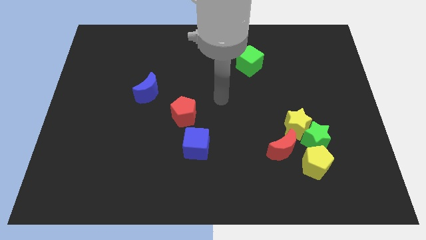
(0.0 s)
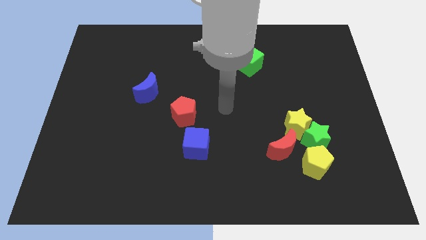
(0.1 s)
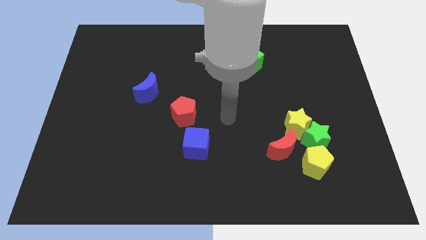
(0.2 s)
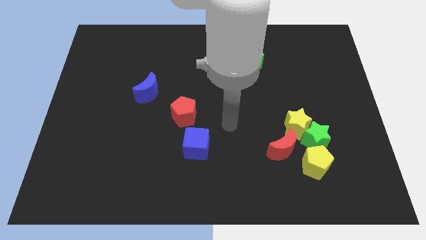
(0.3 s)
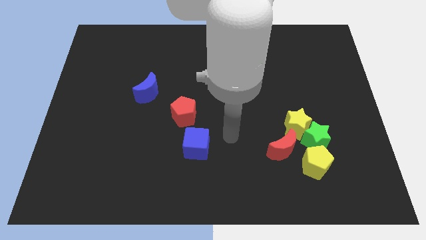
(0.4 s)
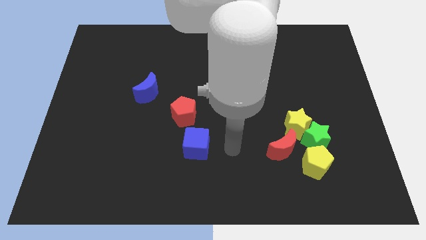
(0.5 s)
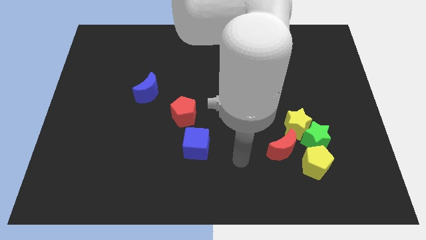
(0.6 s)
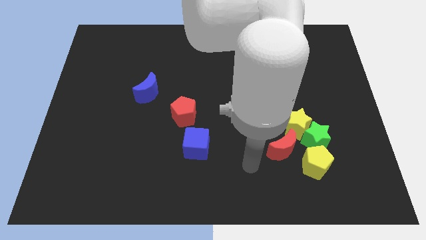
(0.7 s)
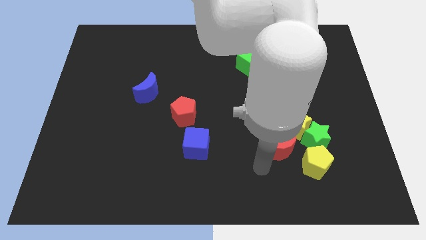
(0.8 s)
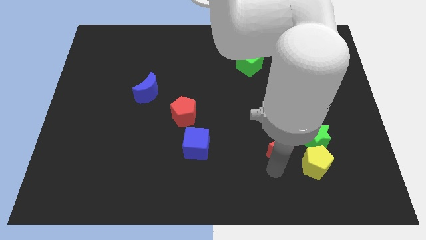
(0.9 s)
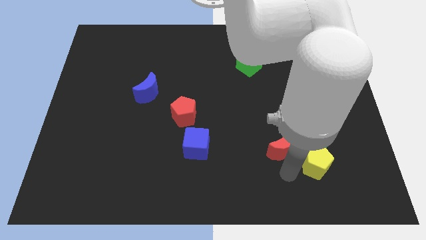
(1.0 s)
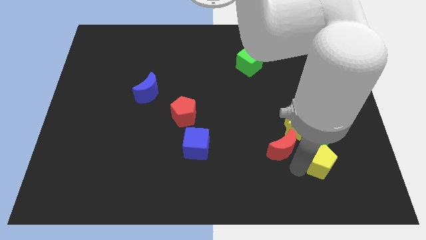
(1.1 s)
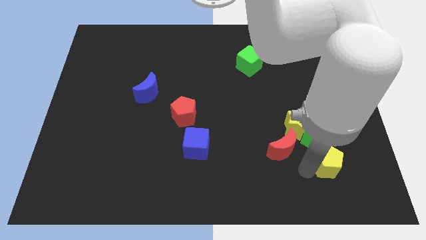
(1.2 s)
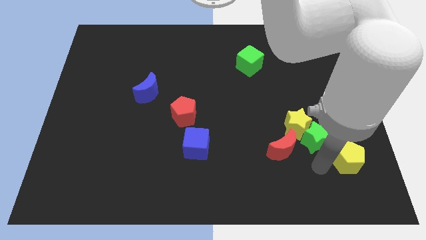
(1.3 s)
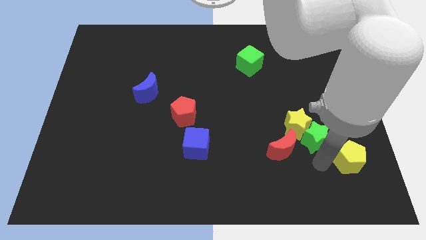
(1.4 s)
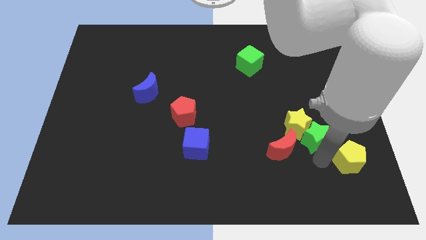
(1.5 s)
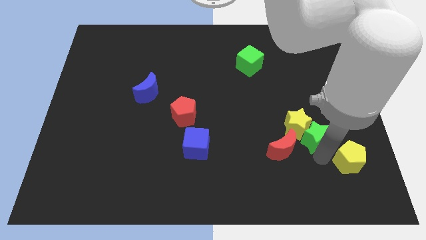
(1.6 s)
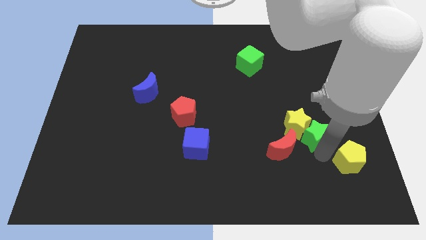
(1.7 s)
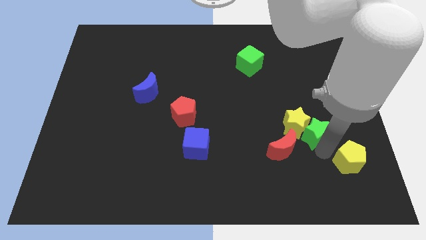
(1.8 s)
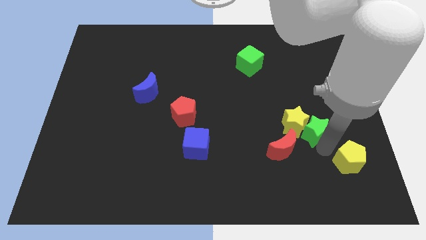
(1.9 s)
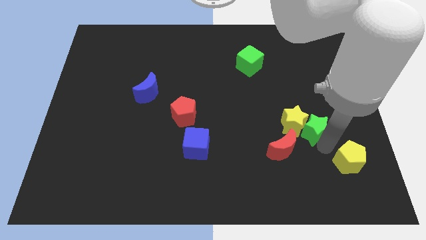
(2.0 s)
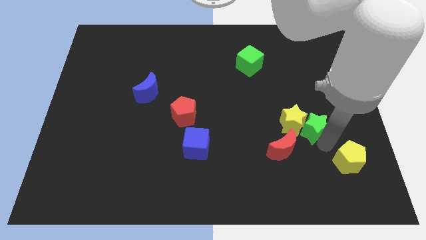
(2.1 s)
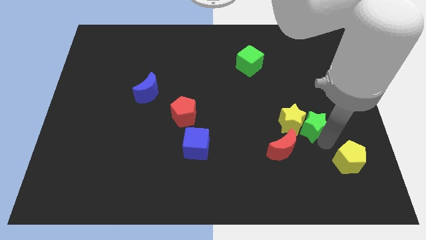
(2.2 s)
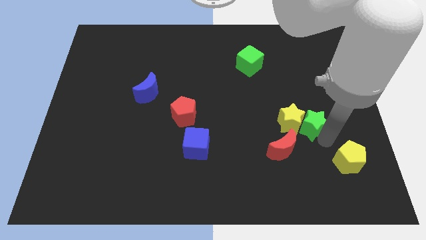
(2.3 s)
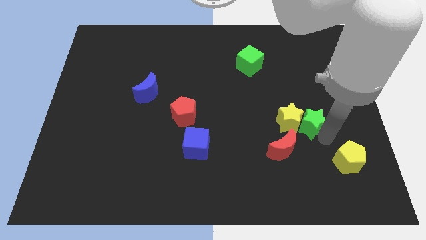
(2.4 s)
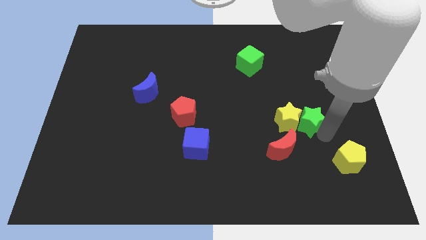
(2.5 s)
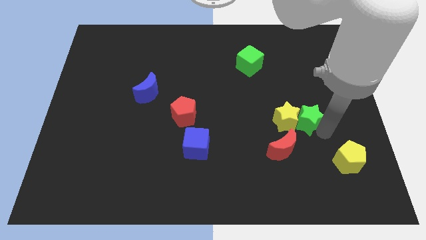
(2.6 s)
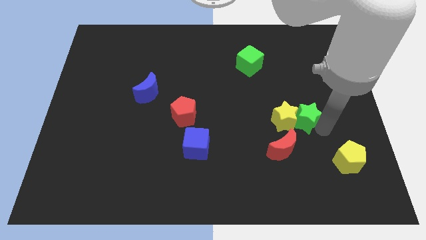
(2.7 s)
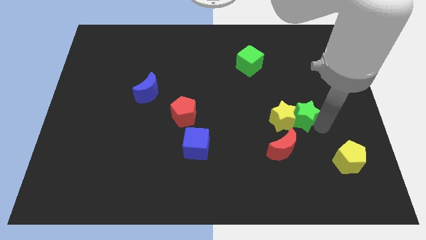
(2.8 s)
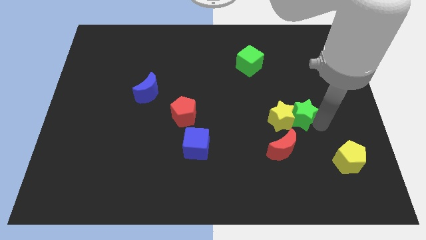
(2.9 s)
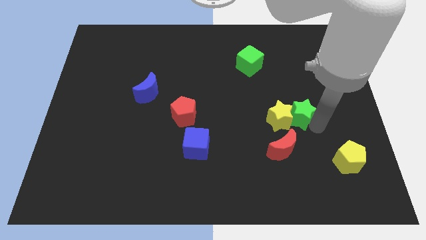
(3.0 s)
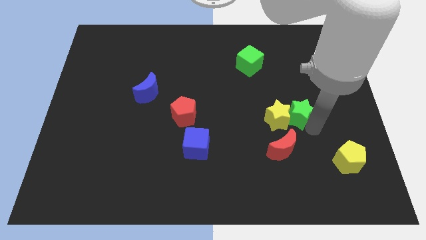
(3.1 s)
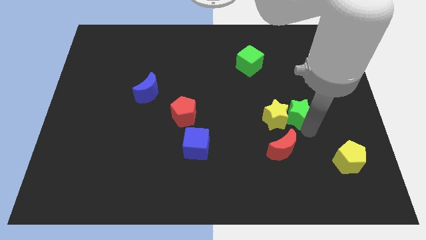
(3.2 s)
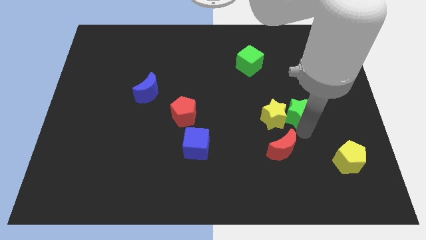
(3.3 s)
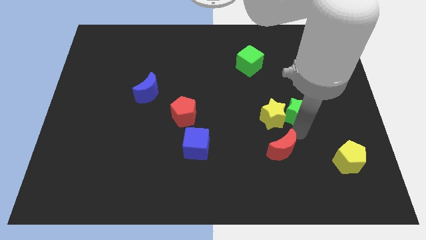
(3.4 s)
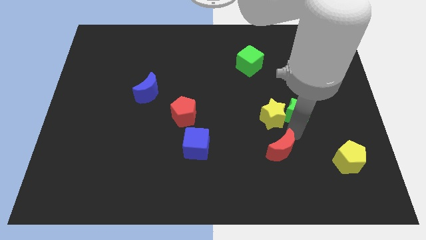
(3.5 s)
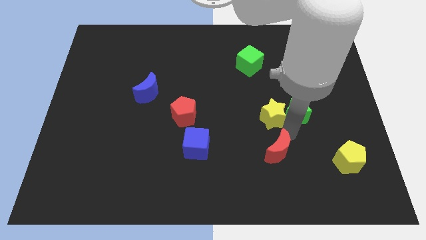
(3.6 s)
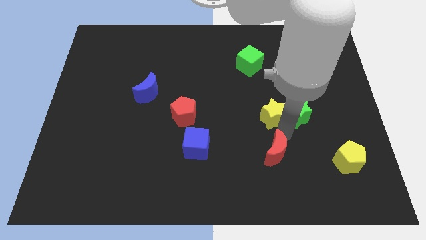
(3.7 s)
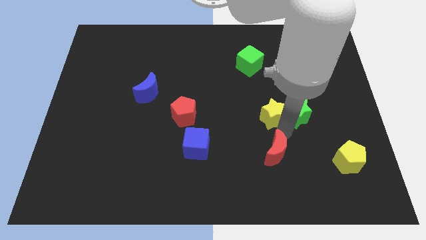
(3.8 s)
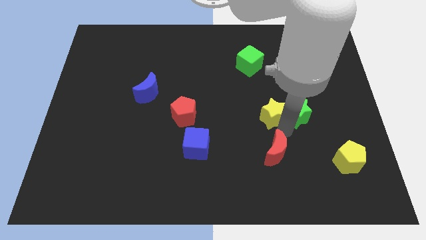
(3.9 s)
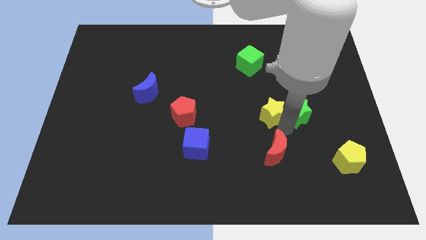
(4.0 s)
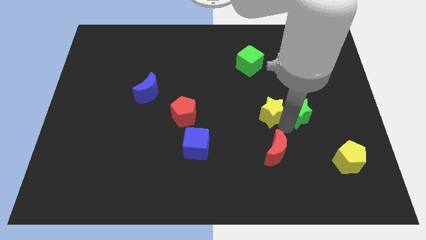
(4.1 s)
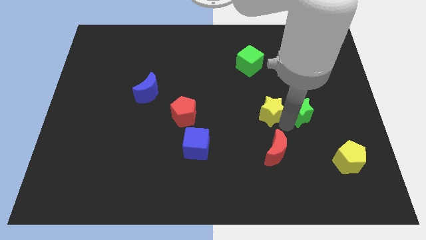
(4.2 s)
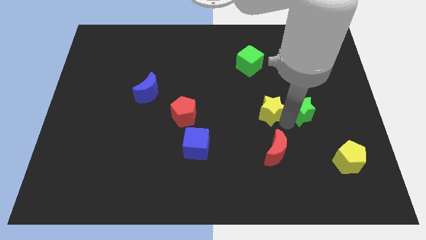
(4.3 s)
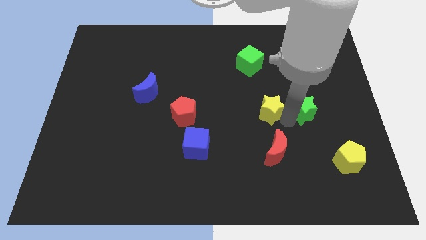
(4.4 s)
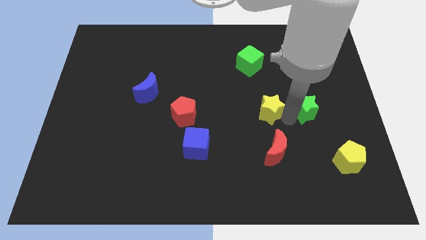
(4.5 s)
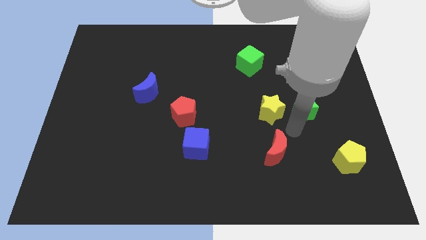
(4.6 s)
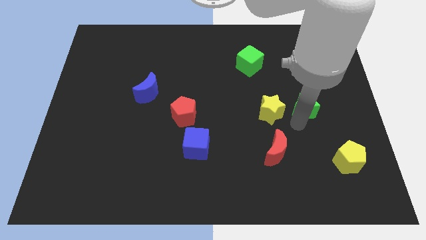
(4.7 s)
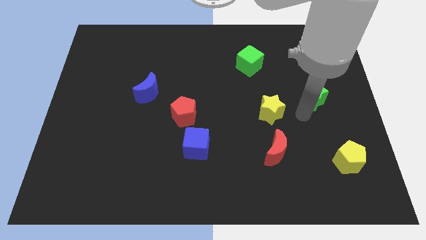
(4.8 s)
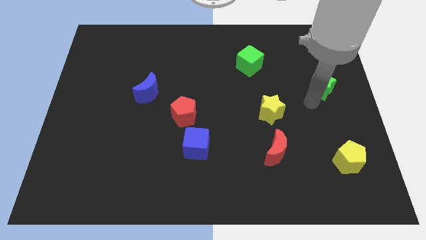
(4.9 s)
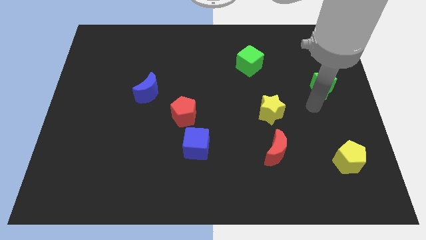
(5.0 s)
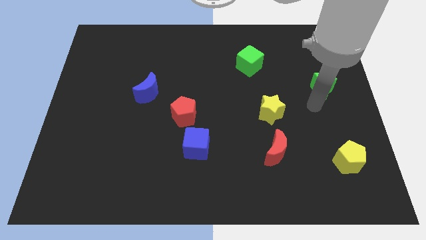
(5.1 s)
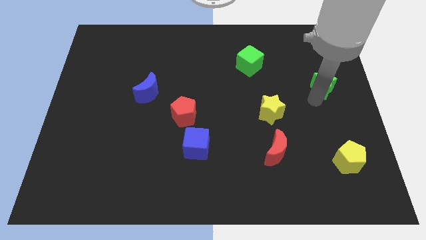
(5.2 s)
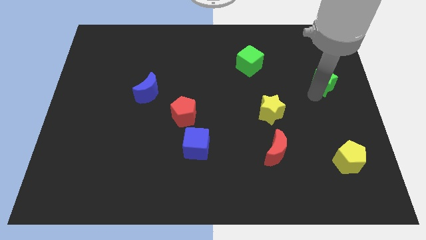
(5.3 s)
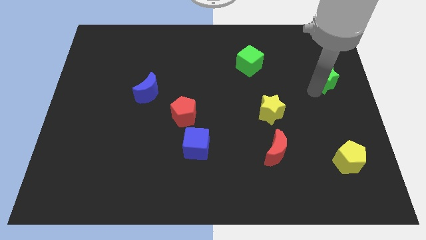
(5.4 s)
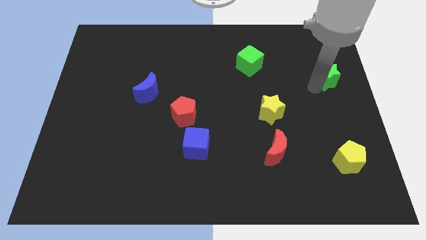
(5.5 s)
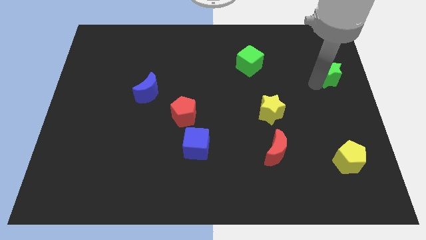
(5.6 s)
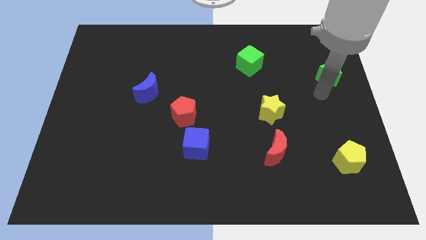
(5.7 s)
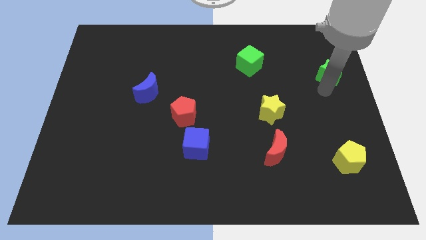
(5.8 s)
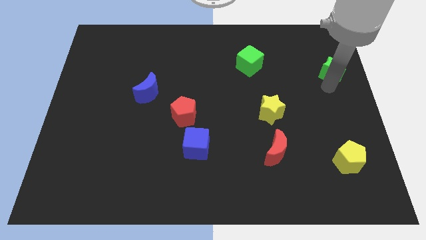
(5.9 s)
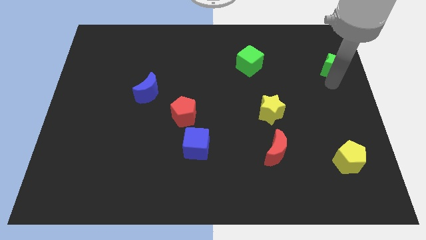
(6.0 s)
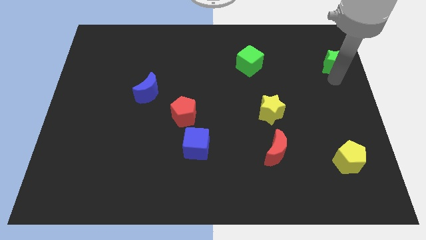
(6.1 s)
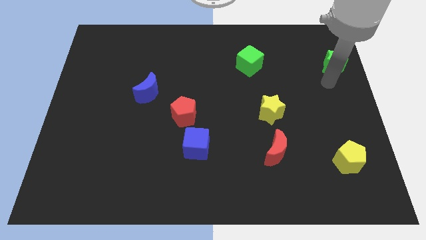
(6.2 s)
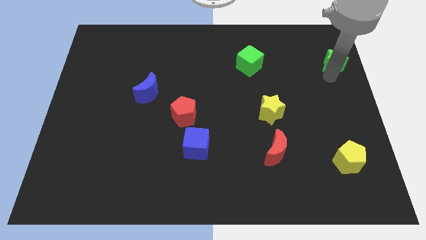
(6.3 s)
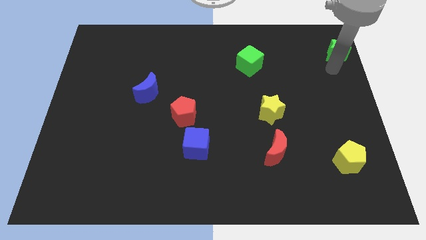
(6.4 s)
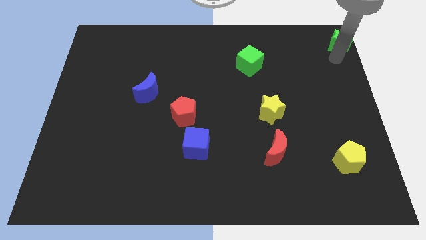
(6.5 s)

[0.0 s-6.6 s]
move the green star to the top right of the board
